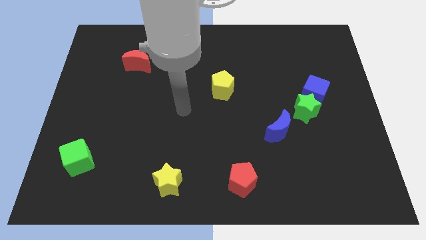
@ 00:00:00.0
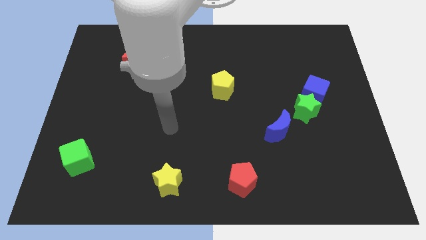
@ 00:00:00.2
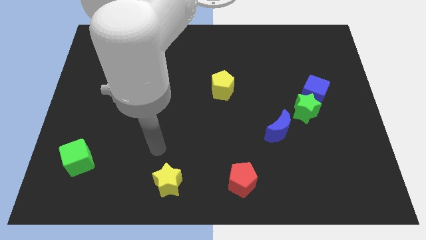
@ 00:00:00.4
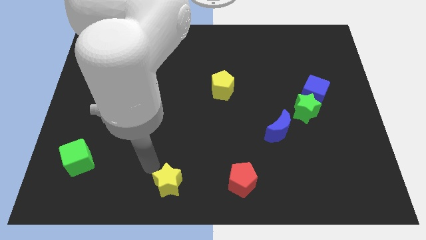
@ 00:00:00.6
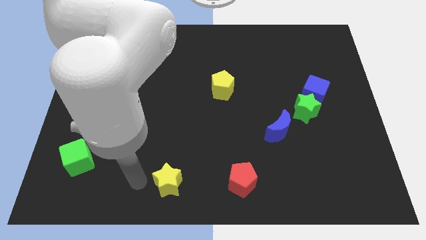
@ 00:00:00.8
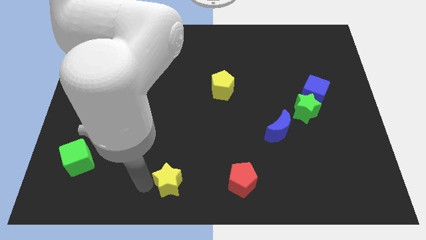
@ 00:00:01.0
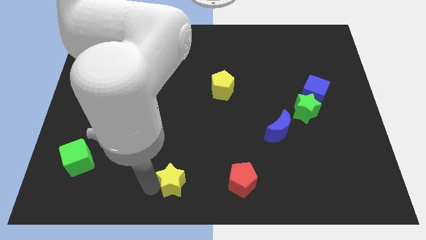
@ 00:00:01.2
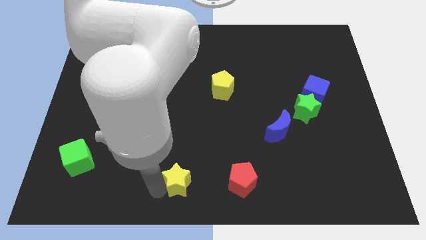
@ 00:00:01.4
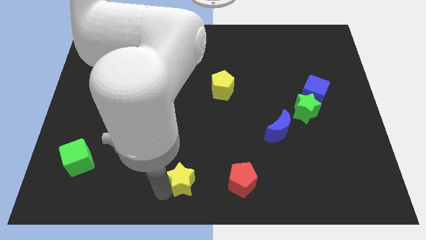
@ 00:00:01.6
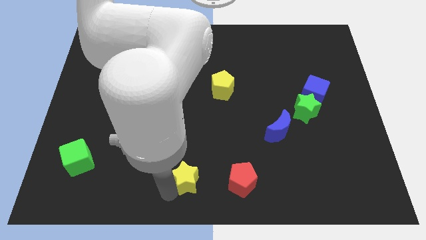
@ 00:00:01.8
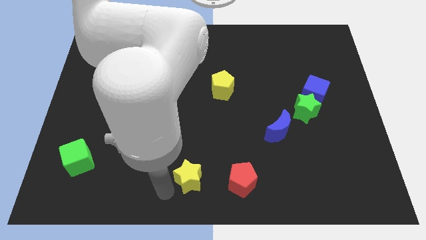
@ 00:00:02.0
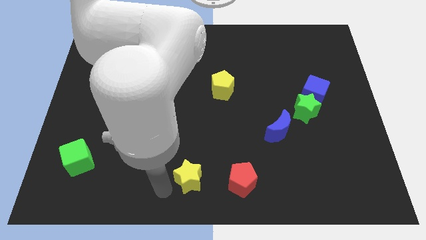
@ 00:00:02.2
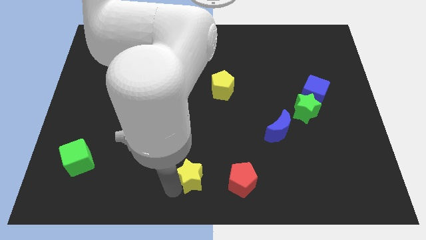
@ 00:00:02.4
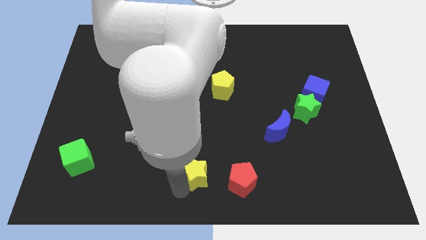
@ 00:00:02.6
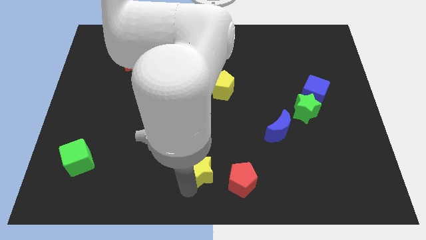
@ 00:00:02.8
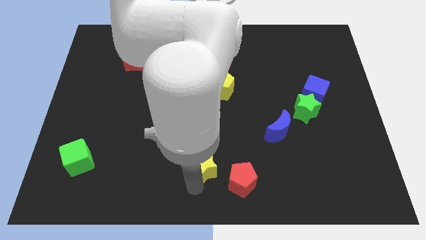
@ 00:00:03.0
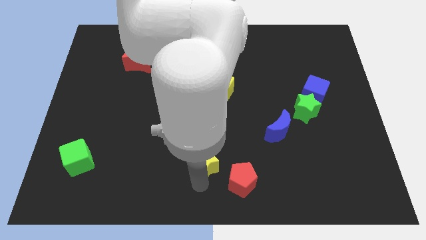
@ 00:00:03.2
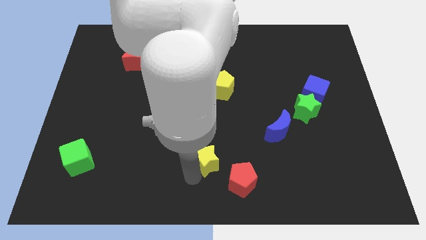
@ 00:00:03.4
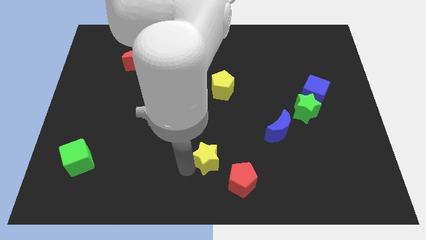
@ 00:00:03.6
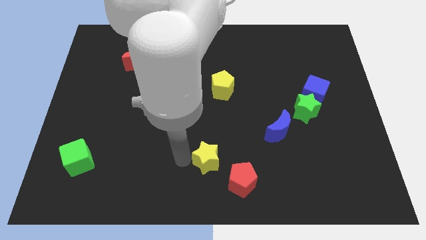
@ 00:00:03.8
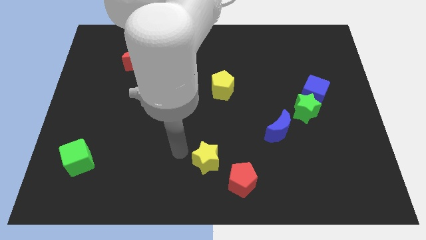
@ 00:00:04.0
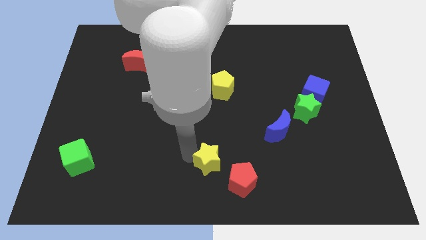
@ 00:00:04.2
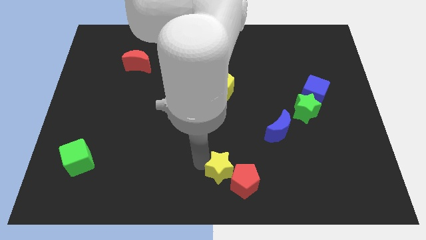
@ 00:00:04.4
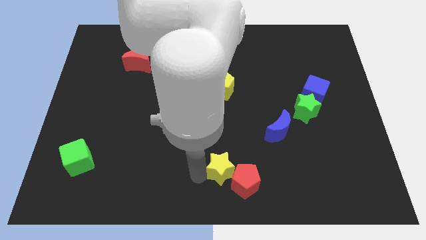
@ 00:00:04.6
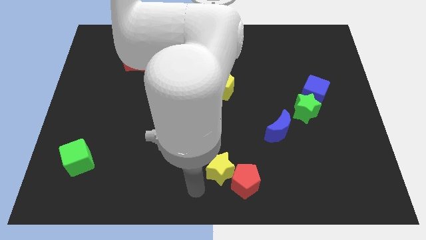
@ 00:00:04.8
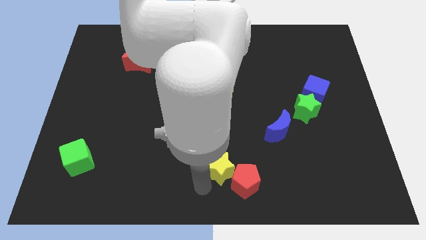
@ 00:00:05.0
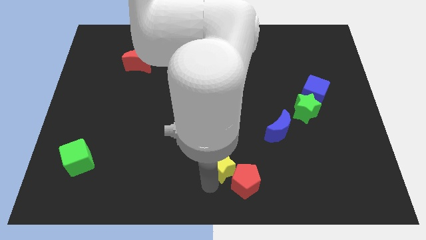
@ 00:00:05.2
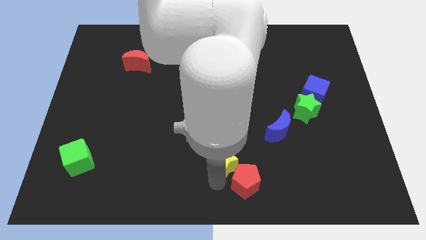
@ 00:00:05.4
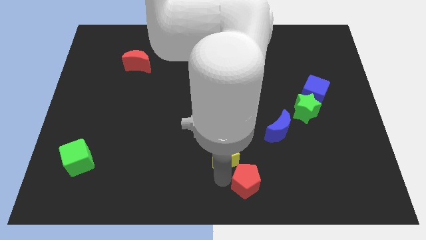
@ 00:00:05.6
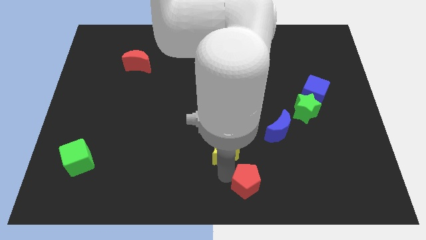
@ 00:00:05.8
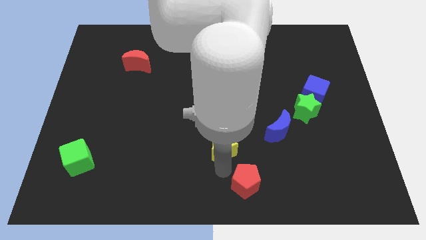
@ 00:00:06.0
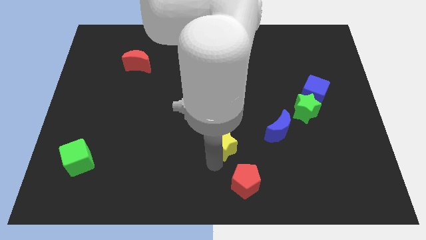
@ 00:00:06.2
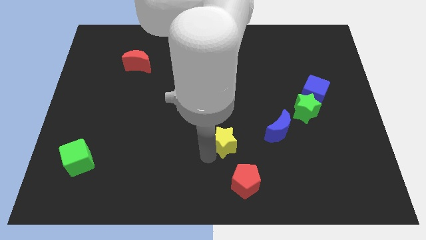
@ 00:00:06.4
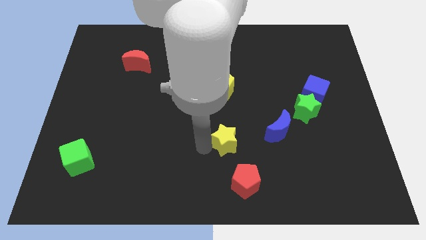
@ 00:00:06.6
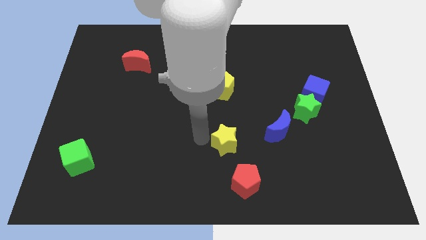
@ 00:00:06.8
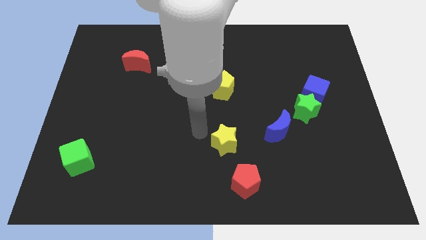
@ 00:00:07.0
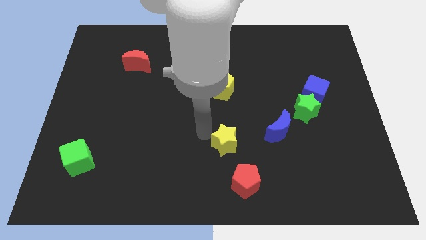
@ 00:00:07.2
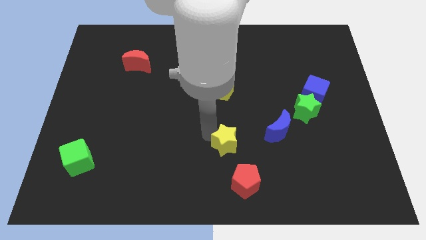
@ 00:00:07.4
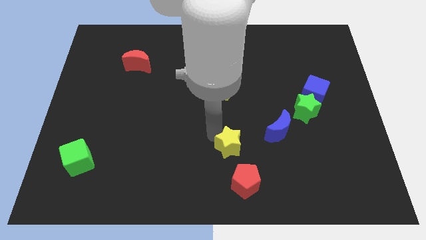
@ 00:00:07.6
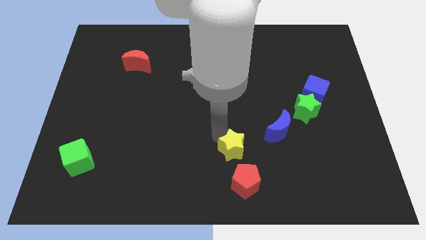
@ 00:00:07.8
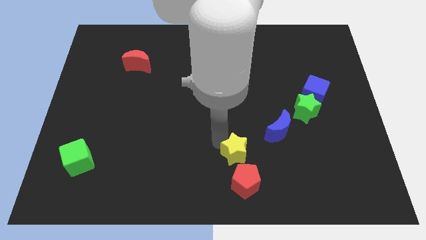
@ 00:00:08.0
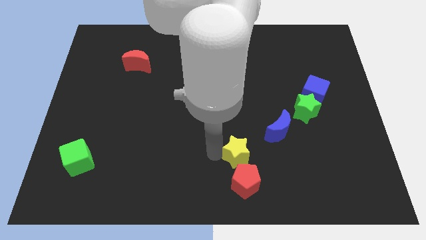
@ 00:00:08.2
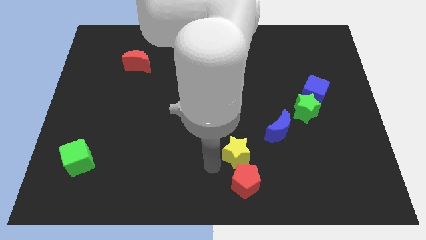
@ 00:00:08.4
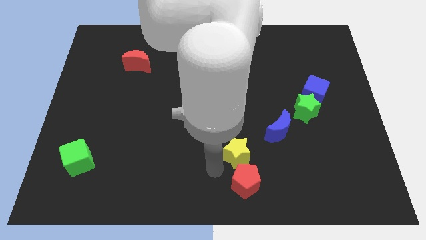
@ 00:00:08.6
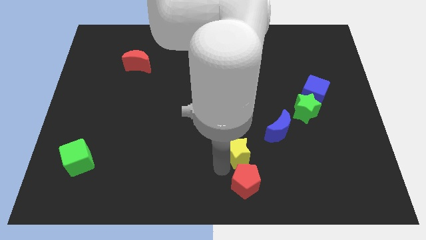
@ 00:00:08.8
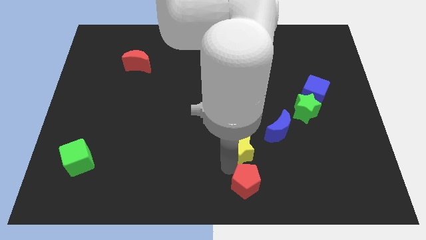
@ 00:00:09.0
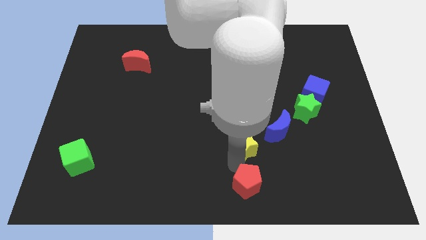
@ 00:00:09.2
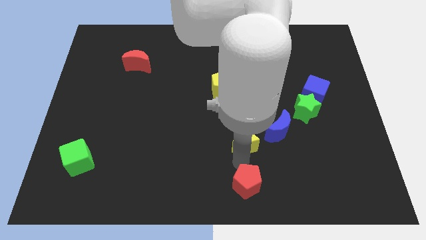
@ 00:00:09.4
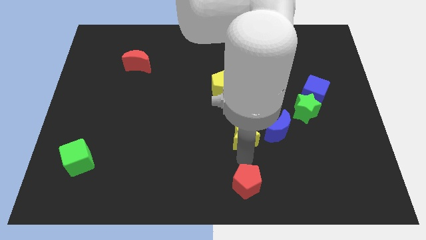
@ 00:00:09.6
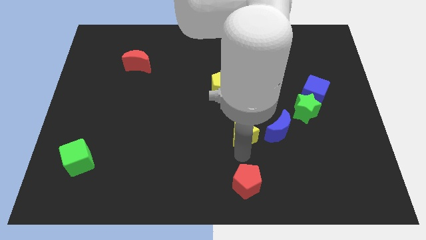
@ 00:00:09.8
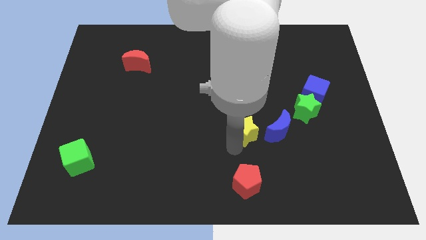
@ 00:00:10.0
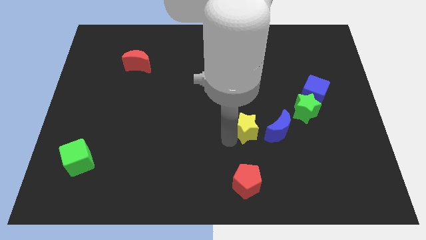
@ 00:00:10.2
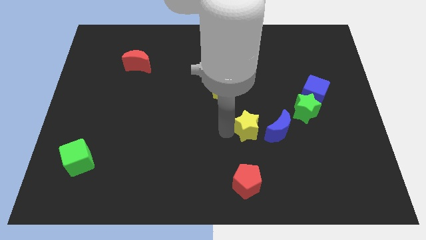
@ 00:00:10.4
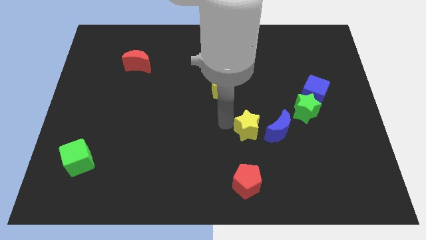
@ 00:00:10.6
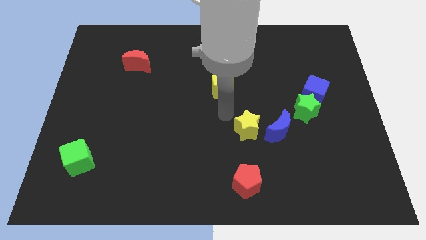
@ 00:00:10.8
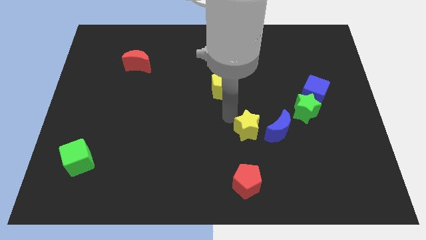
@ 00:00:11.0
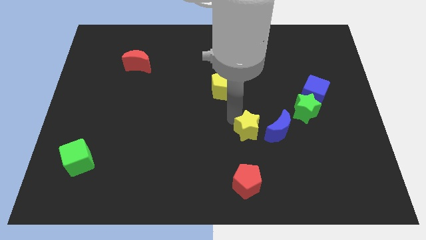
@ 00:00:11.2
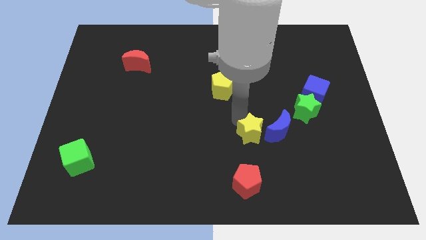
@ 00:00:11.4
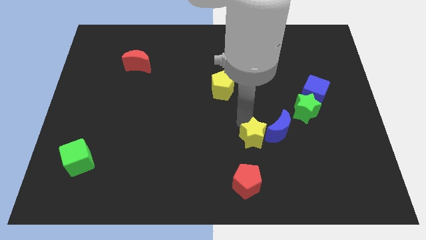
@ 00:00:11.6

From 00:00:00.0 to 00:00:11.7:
slide the yellow star close to the blue moon

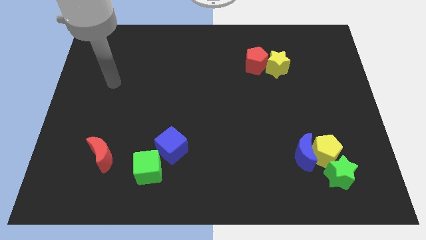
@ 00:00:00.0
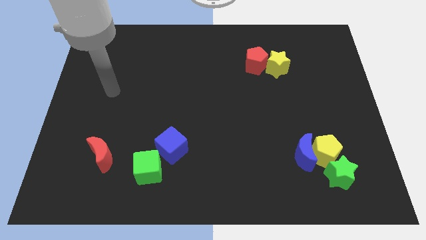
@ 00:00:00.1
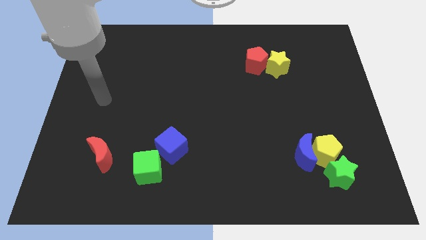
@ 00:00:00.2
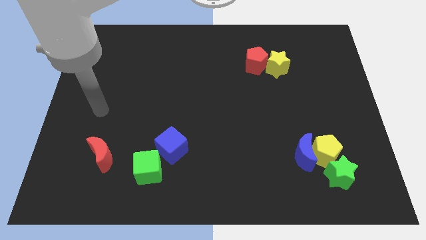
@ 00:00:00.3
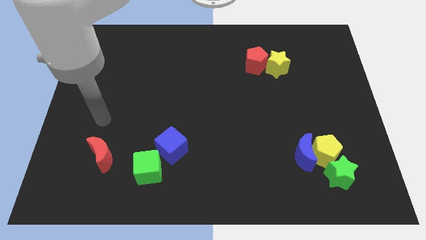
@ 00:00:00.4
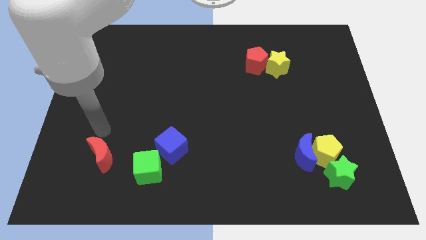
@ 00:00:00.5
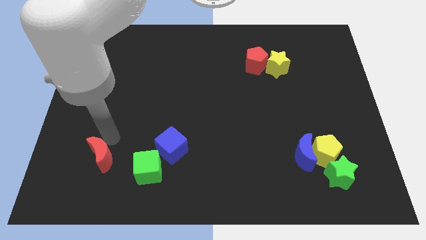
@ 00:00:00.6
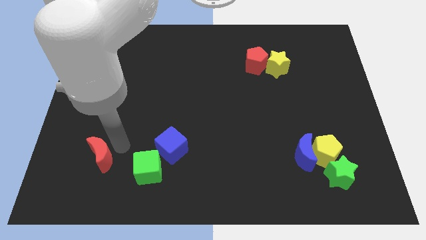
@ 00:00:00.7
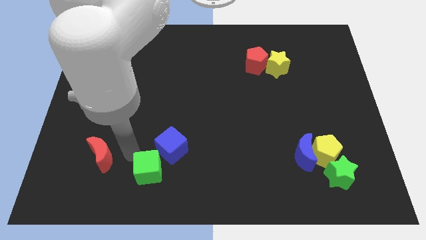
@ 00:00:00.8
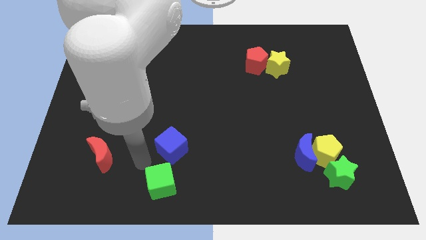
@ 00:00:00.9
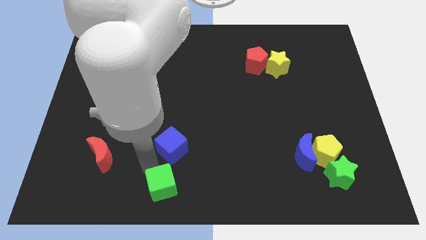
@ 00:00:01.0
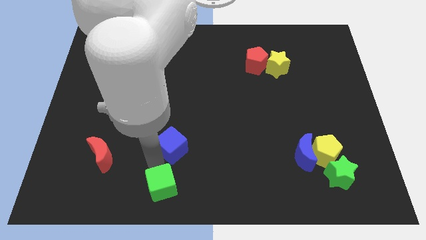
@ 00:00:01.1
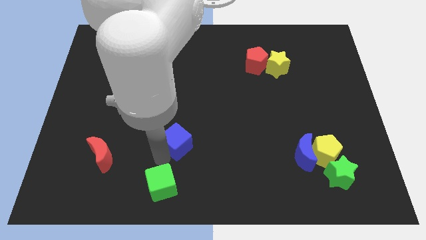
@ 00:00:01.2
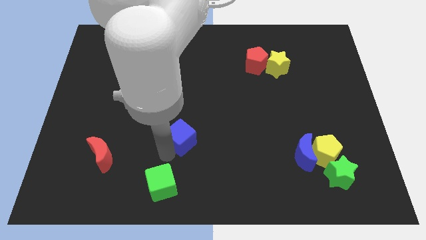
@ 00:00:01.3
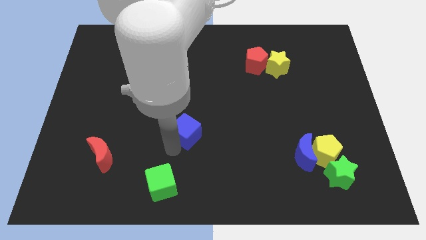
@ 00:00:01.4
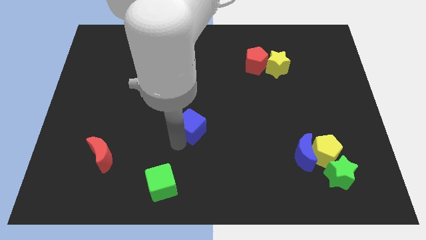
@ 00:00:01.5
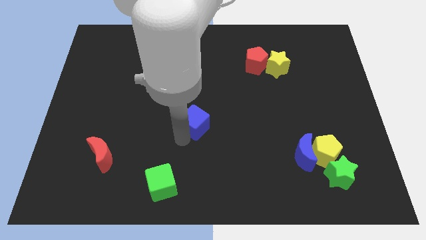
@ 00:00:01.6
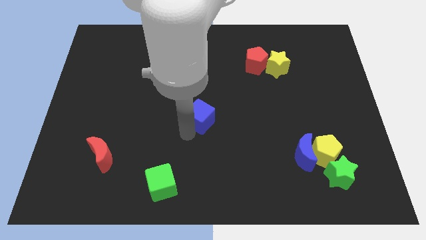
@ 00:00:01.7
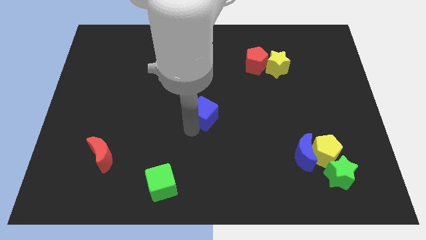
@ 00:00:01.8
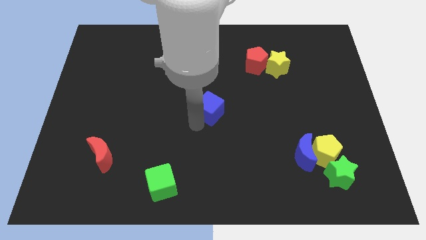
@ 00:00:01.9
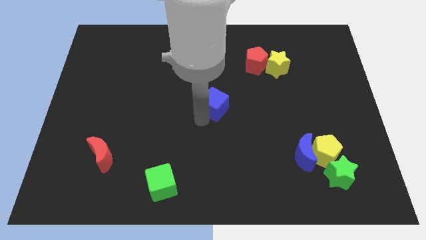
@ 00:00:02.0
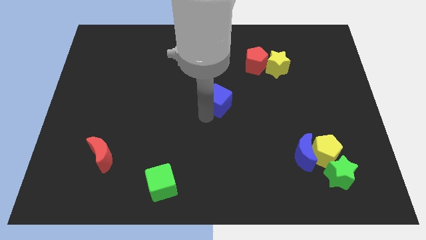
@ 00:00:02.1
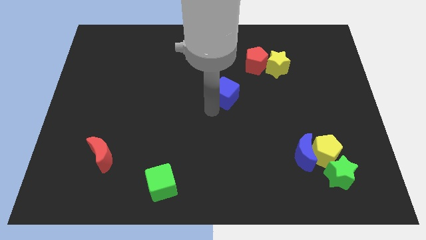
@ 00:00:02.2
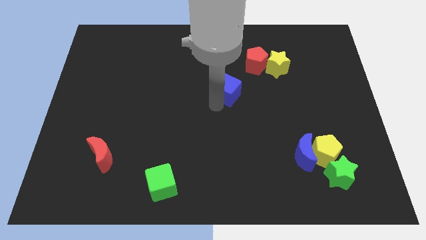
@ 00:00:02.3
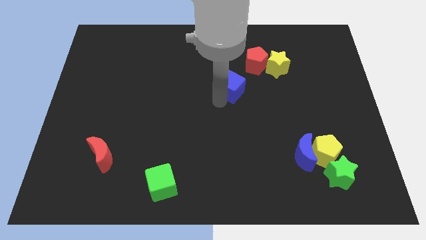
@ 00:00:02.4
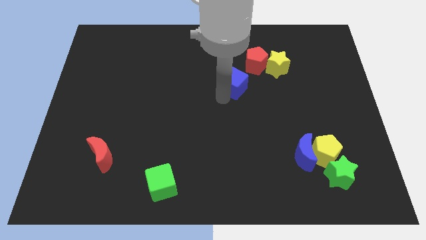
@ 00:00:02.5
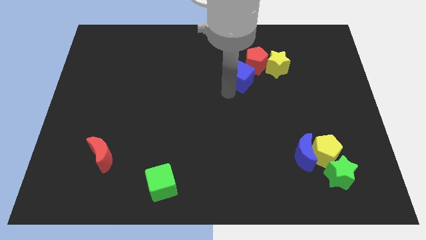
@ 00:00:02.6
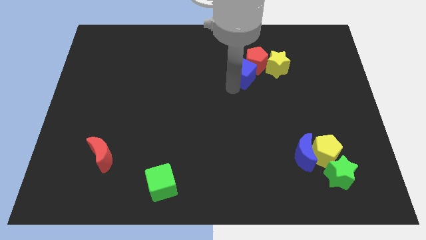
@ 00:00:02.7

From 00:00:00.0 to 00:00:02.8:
move the blue cube to the red pentagon
